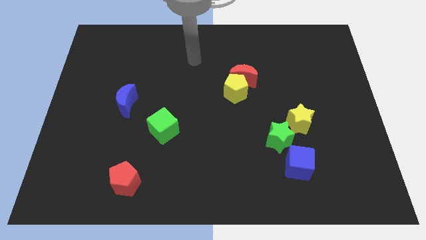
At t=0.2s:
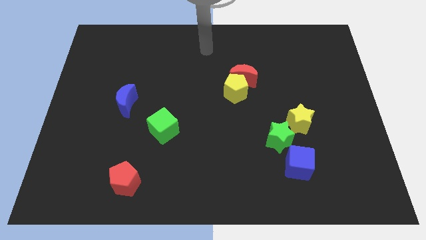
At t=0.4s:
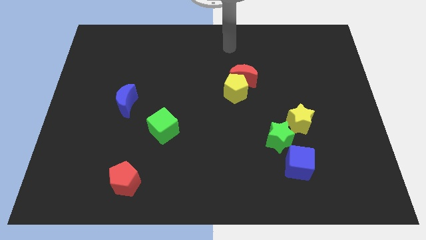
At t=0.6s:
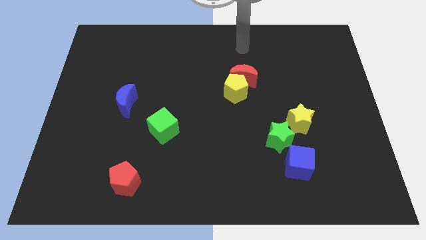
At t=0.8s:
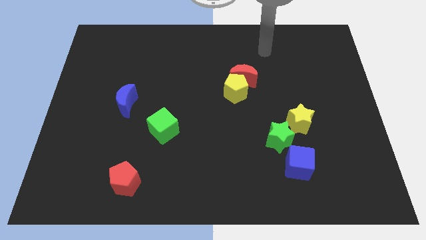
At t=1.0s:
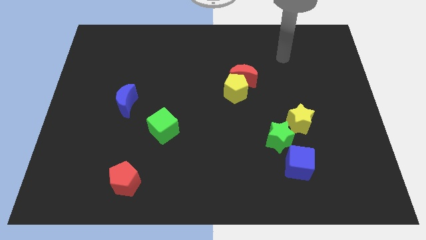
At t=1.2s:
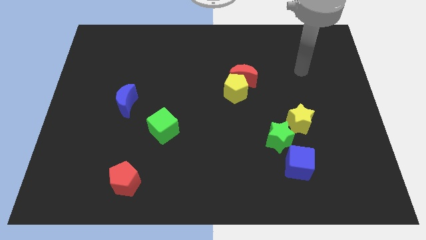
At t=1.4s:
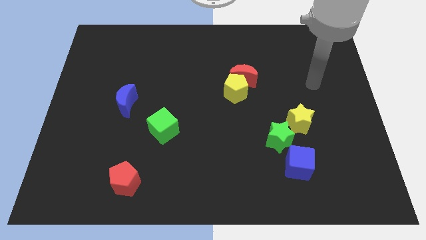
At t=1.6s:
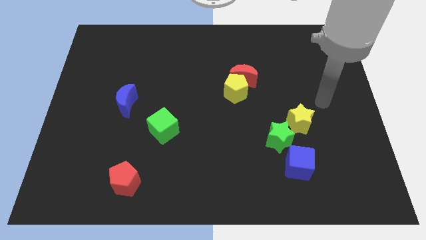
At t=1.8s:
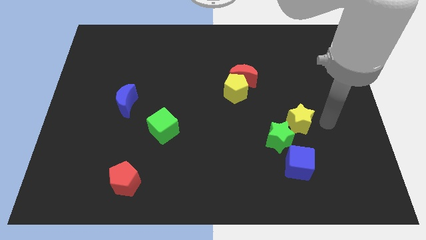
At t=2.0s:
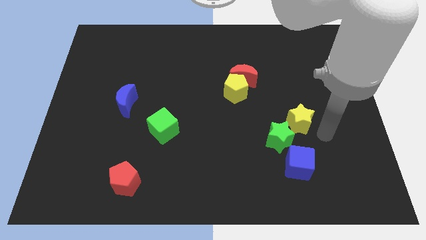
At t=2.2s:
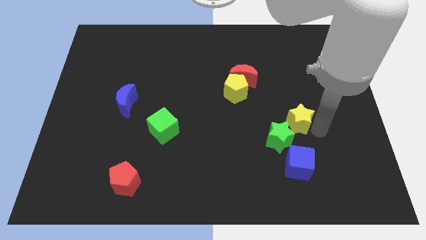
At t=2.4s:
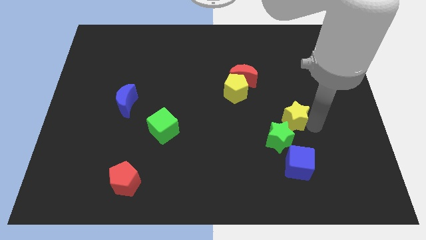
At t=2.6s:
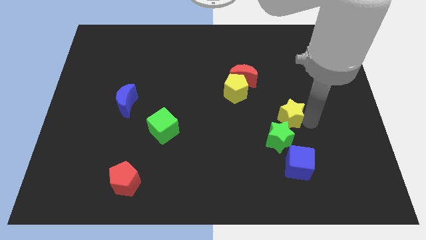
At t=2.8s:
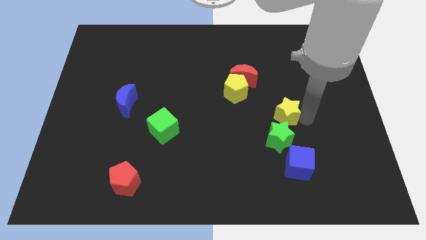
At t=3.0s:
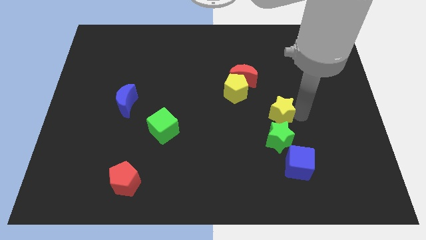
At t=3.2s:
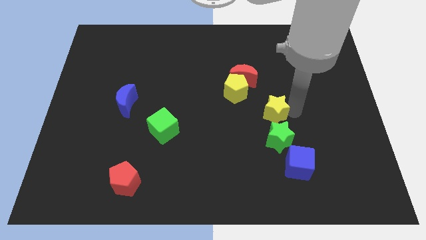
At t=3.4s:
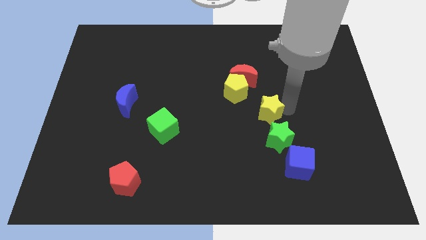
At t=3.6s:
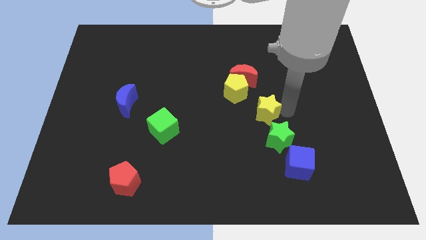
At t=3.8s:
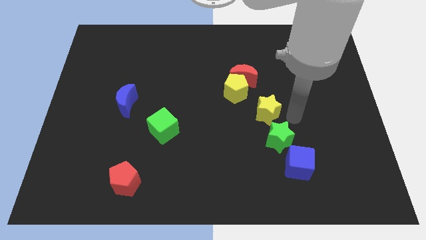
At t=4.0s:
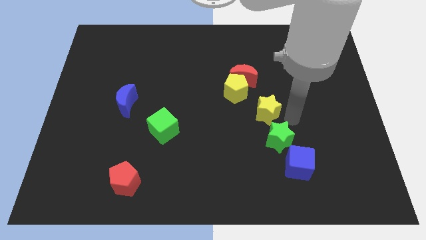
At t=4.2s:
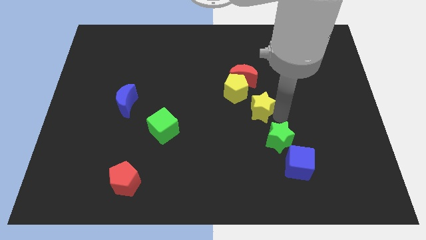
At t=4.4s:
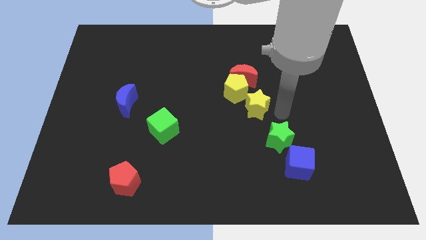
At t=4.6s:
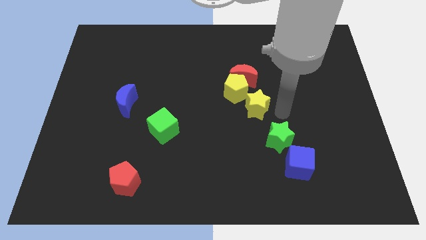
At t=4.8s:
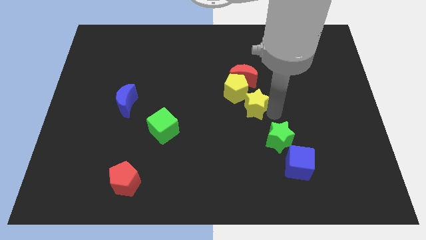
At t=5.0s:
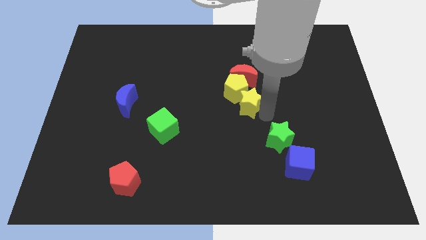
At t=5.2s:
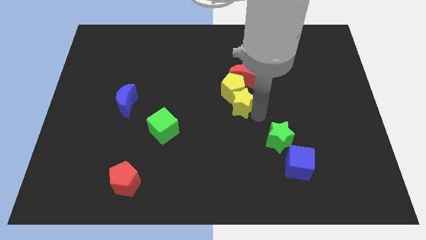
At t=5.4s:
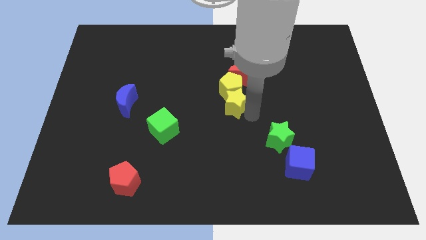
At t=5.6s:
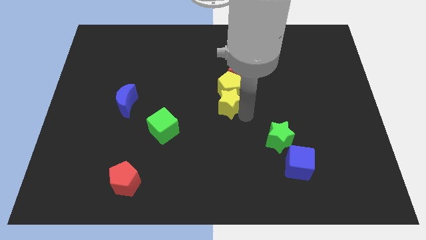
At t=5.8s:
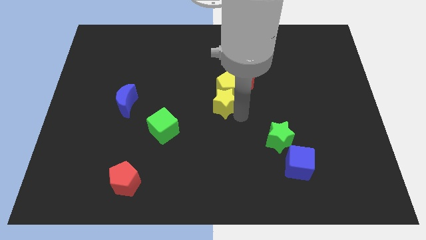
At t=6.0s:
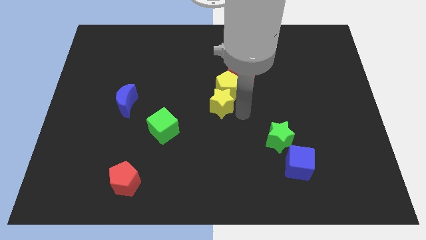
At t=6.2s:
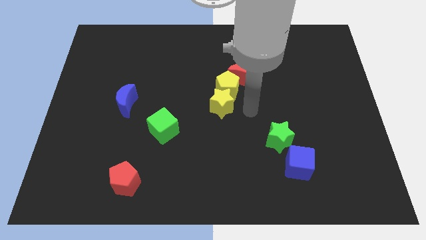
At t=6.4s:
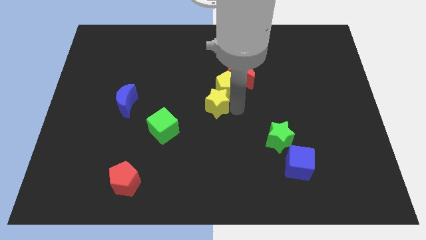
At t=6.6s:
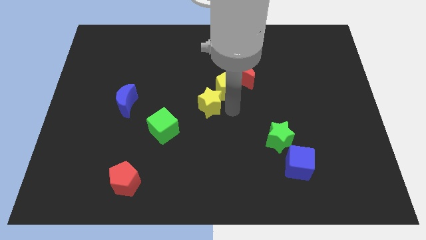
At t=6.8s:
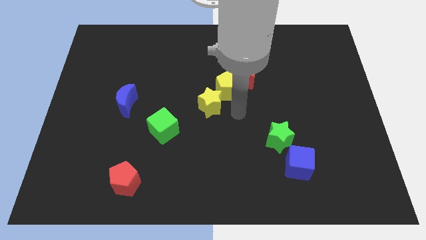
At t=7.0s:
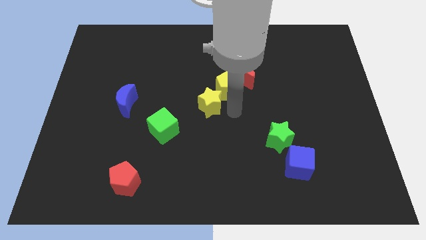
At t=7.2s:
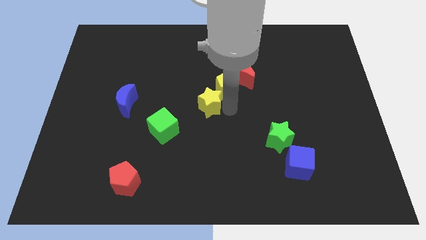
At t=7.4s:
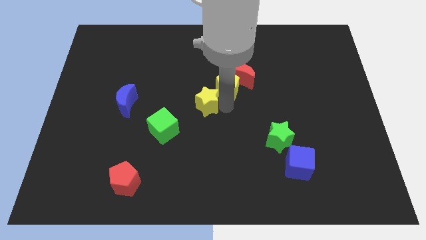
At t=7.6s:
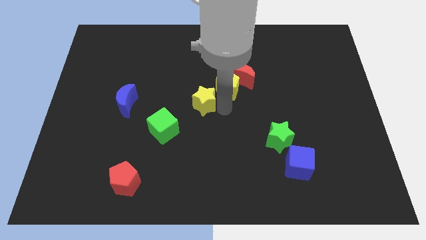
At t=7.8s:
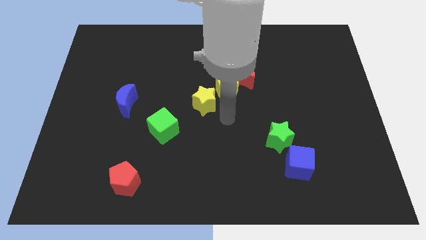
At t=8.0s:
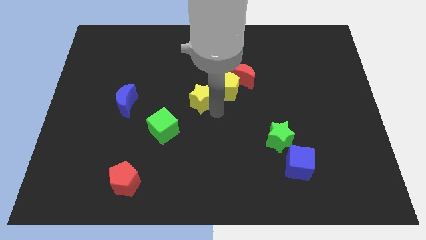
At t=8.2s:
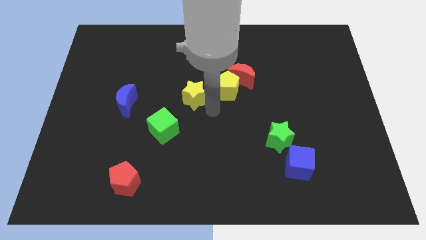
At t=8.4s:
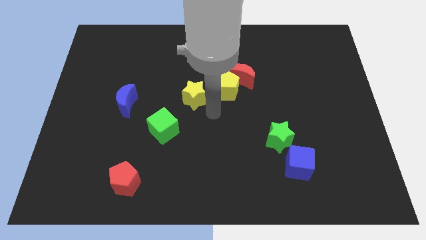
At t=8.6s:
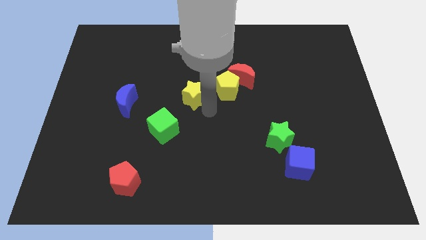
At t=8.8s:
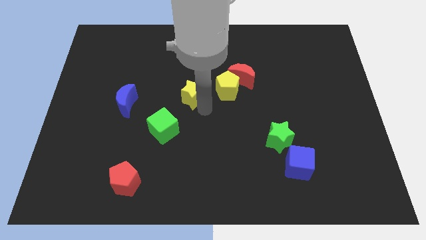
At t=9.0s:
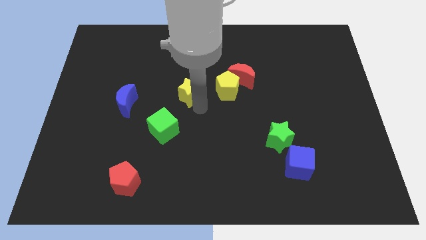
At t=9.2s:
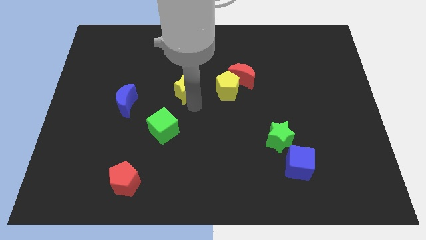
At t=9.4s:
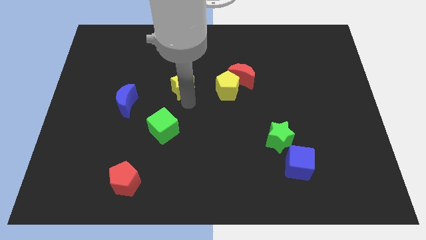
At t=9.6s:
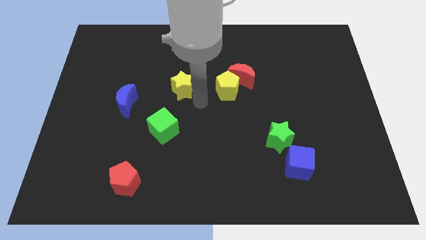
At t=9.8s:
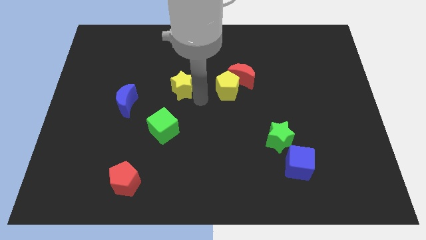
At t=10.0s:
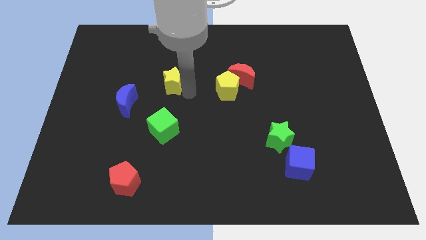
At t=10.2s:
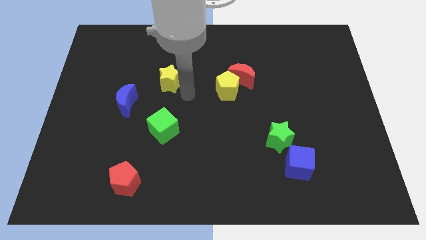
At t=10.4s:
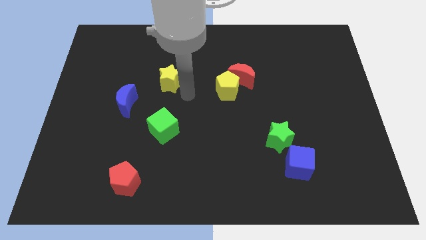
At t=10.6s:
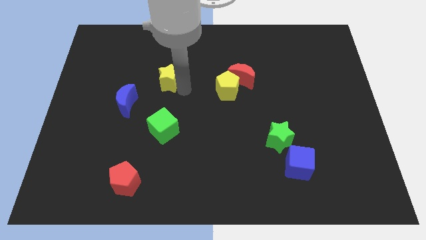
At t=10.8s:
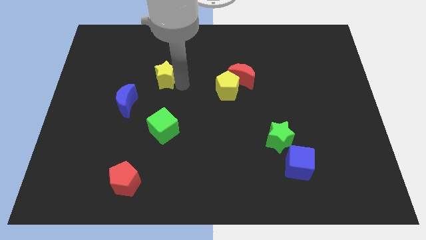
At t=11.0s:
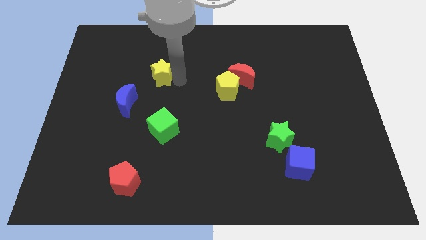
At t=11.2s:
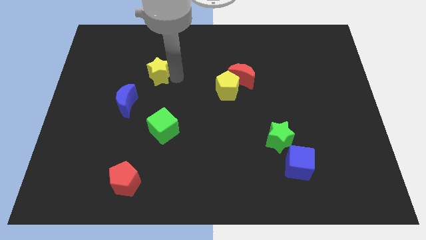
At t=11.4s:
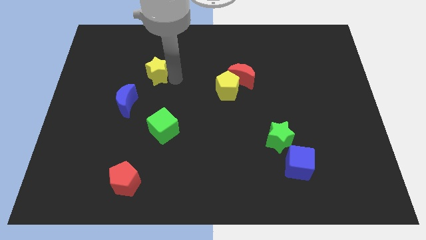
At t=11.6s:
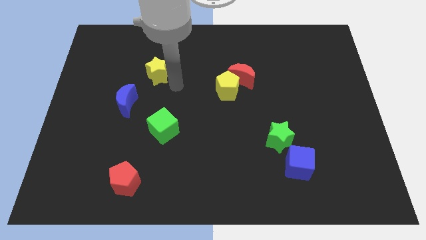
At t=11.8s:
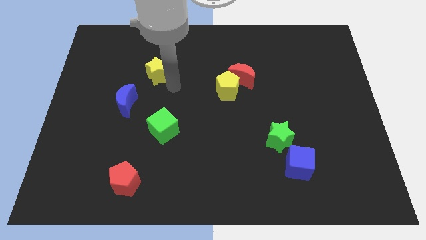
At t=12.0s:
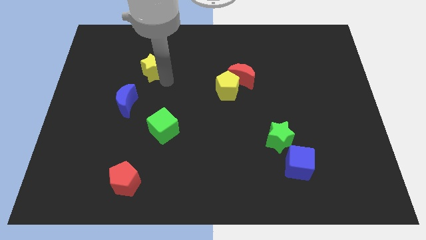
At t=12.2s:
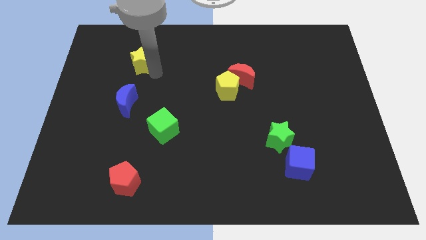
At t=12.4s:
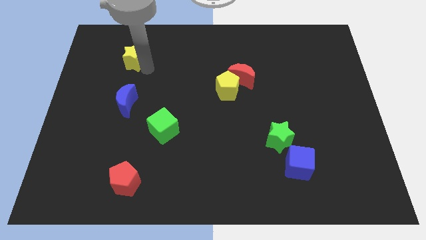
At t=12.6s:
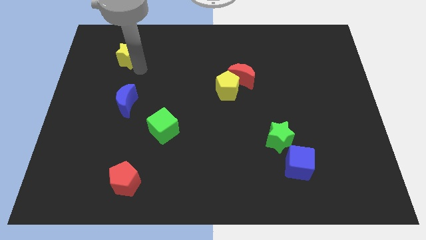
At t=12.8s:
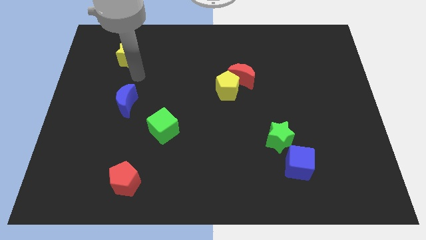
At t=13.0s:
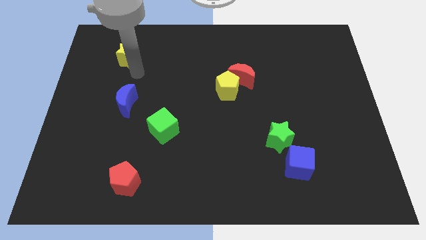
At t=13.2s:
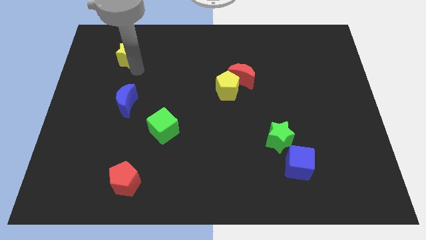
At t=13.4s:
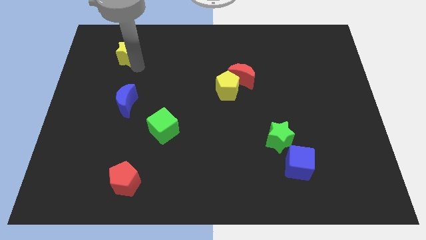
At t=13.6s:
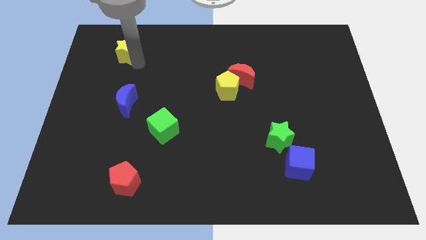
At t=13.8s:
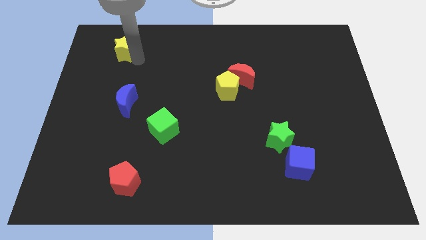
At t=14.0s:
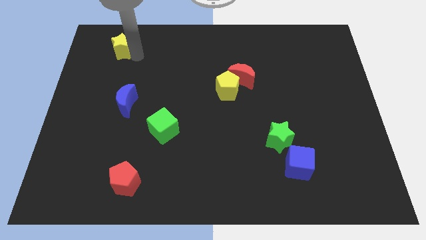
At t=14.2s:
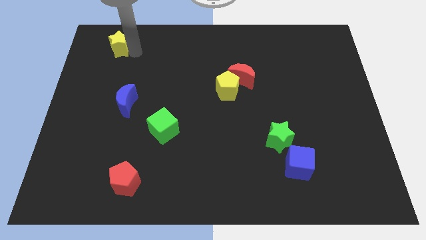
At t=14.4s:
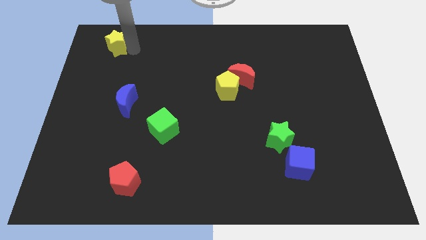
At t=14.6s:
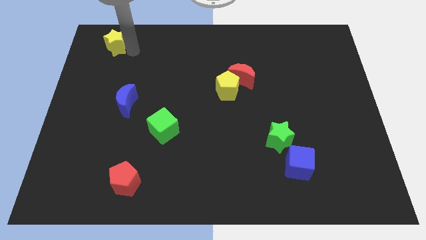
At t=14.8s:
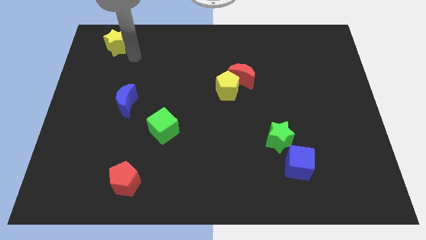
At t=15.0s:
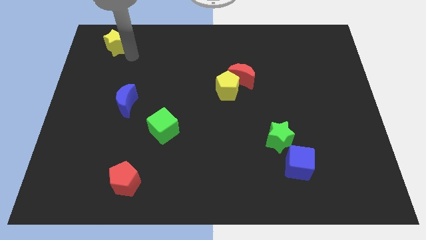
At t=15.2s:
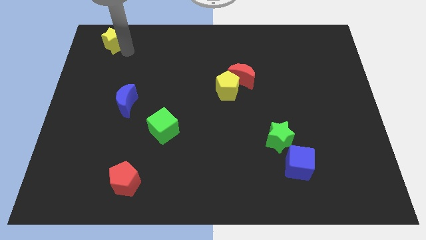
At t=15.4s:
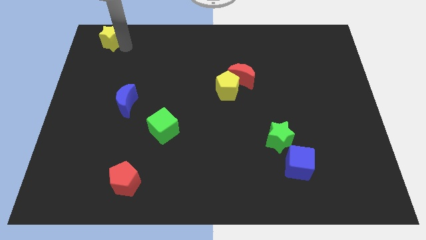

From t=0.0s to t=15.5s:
slide the yellow star to the upper left corner
